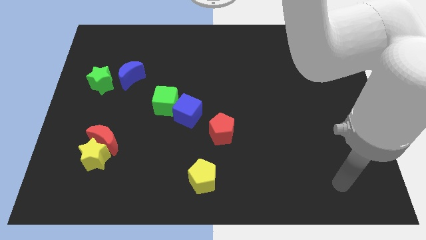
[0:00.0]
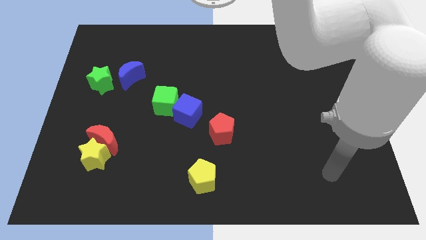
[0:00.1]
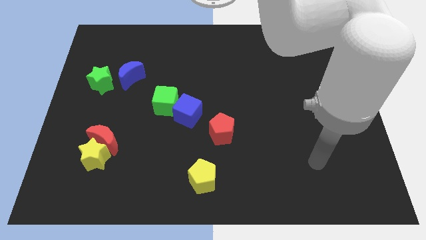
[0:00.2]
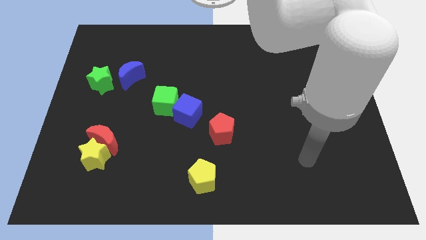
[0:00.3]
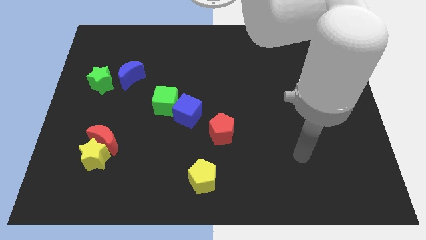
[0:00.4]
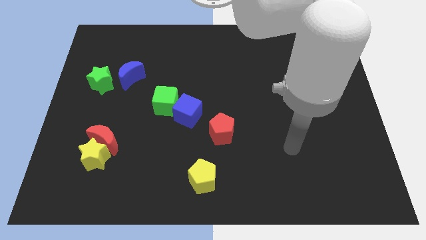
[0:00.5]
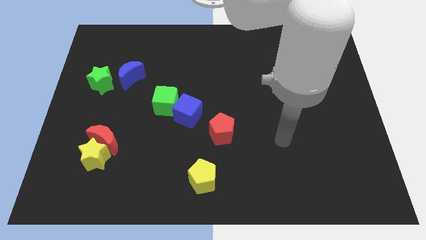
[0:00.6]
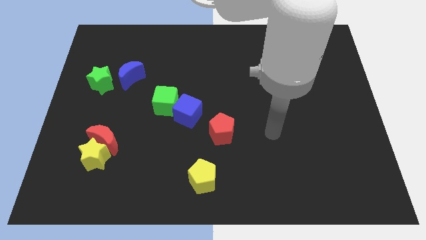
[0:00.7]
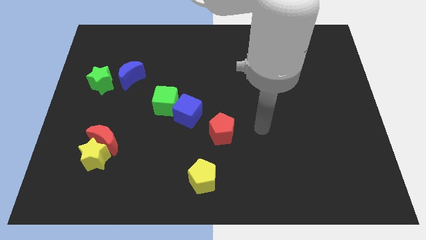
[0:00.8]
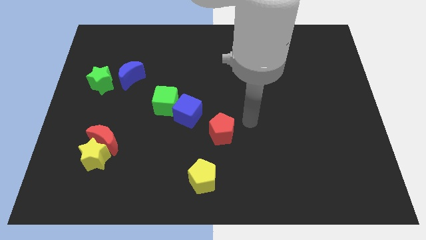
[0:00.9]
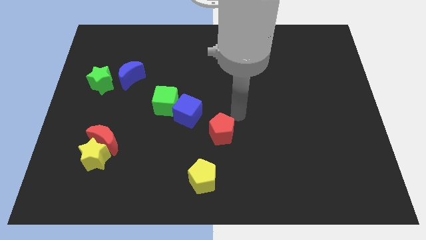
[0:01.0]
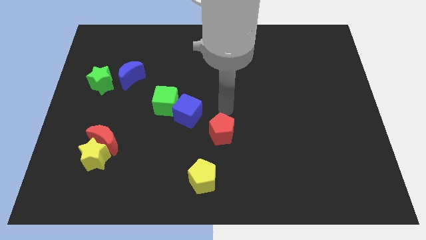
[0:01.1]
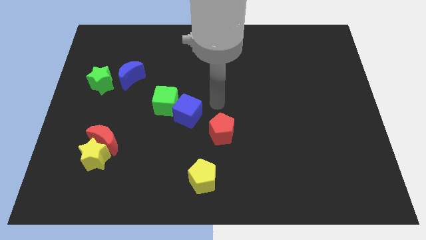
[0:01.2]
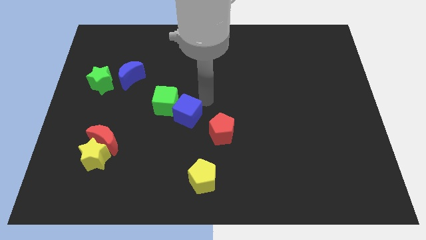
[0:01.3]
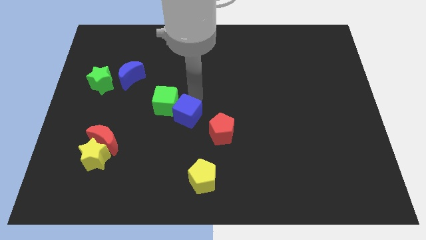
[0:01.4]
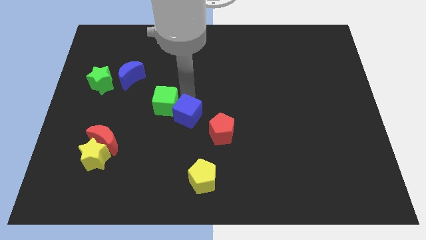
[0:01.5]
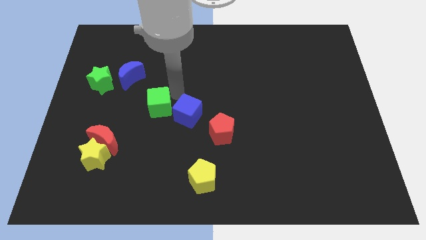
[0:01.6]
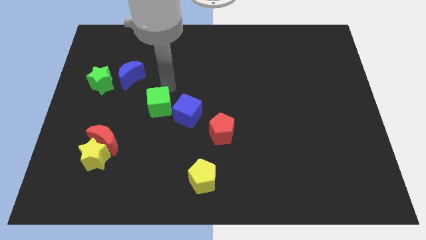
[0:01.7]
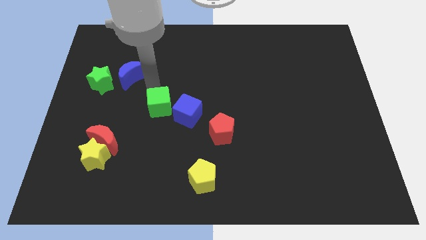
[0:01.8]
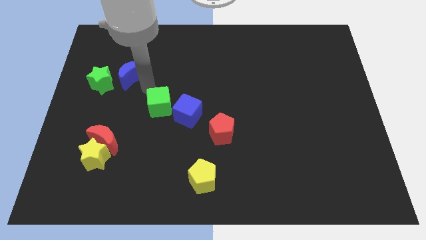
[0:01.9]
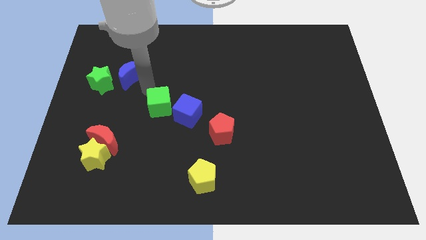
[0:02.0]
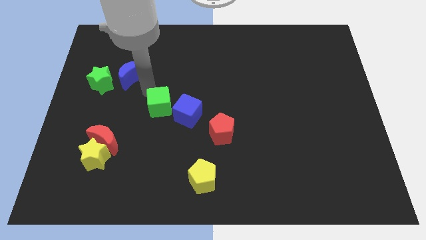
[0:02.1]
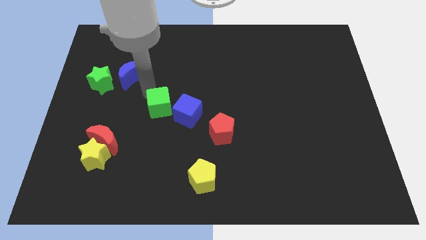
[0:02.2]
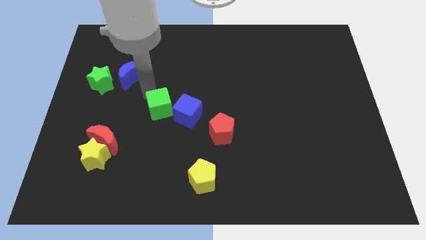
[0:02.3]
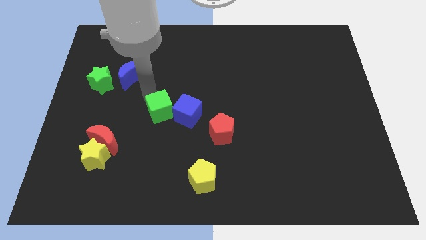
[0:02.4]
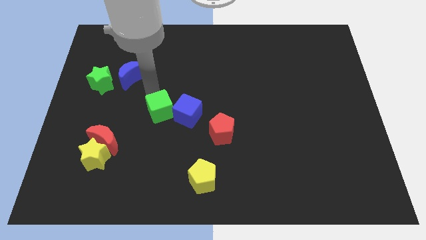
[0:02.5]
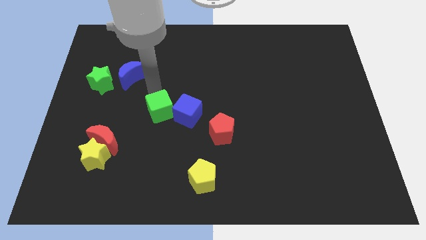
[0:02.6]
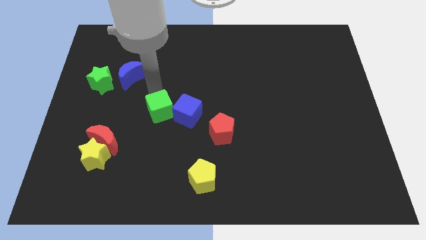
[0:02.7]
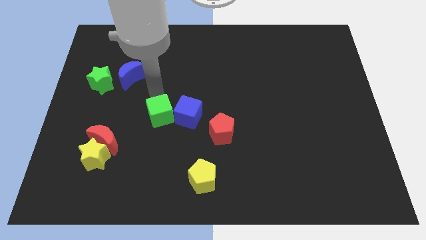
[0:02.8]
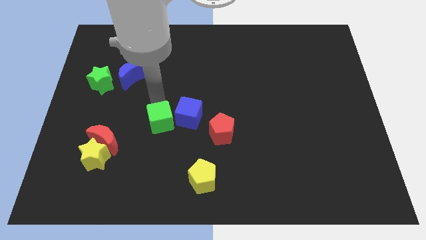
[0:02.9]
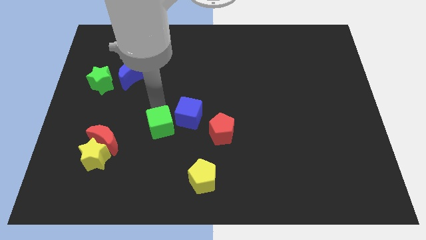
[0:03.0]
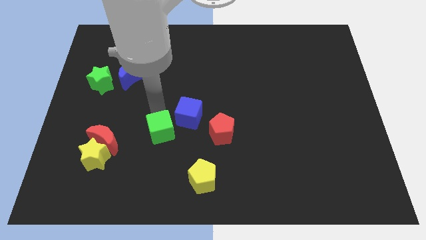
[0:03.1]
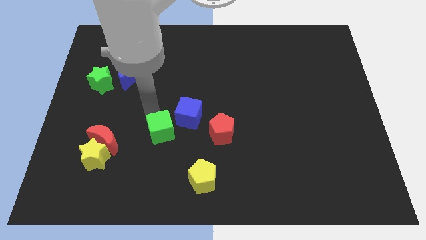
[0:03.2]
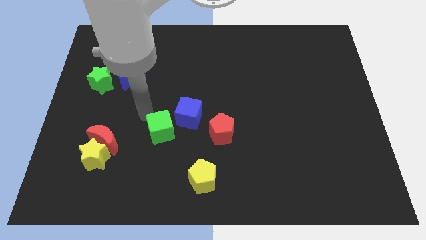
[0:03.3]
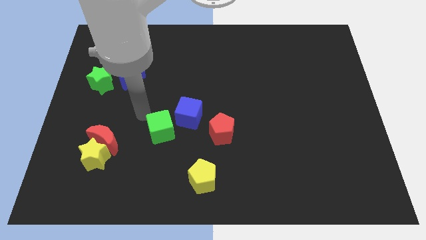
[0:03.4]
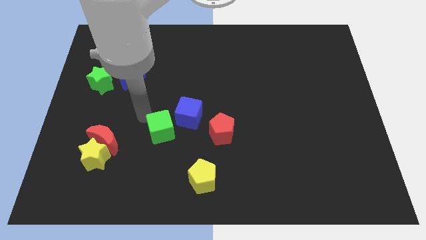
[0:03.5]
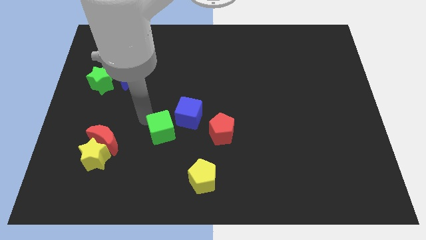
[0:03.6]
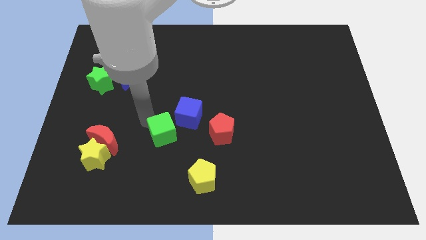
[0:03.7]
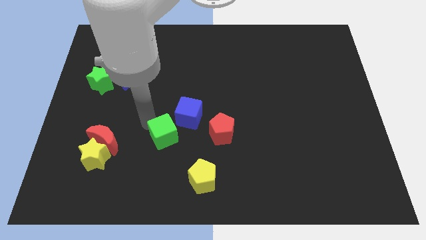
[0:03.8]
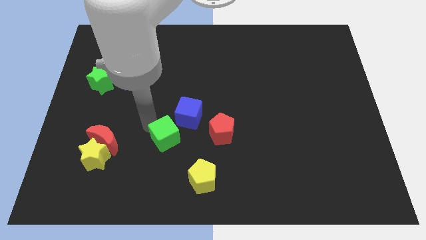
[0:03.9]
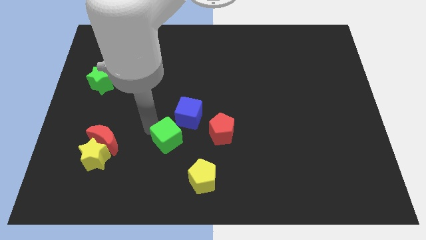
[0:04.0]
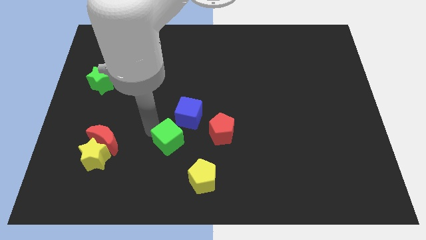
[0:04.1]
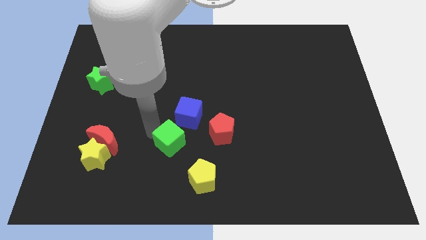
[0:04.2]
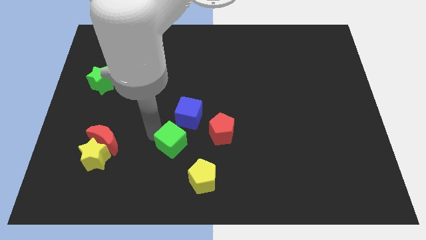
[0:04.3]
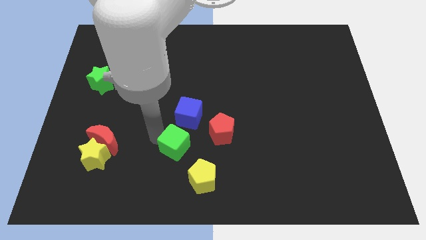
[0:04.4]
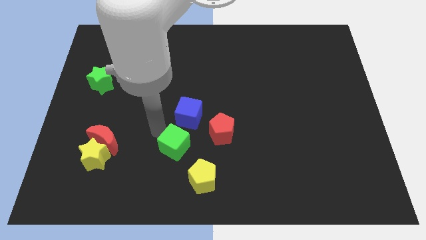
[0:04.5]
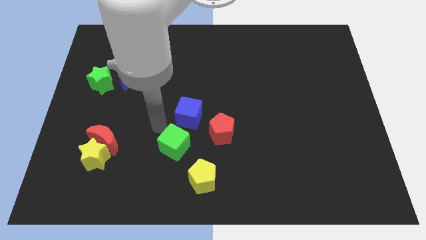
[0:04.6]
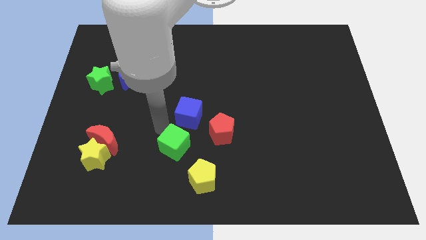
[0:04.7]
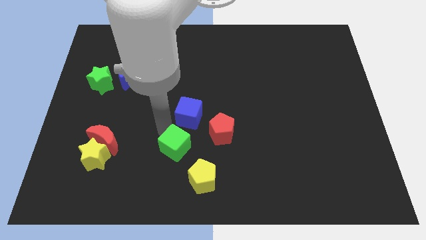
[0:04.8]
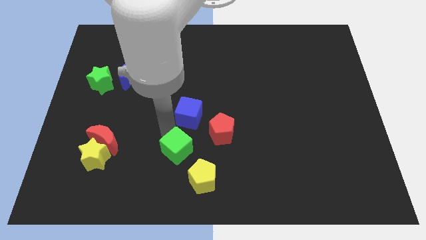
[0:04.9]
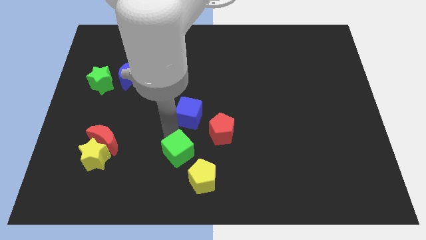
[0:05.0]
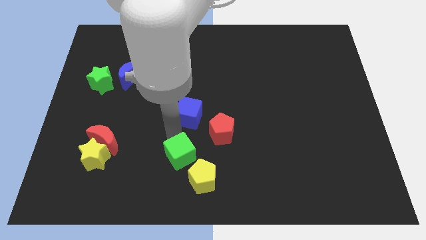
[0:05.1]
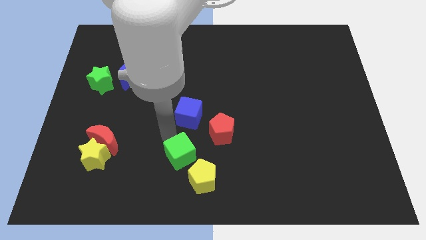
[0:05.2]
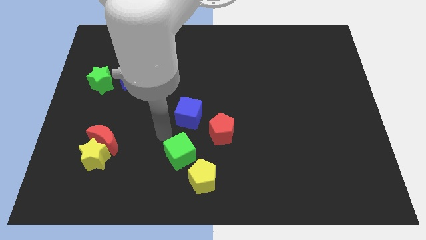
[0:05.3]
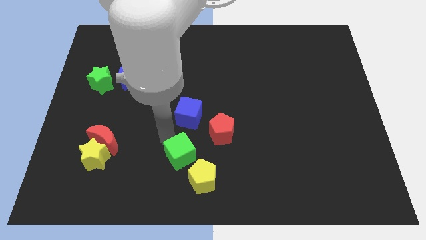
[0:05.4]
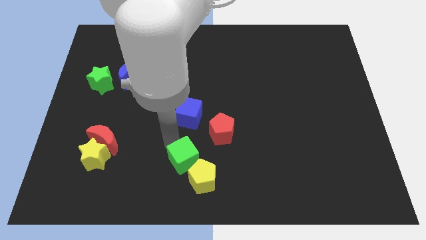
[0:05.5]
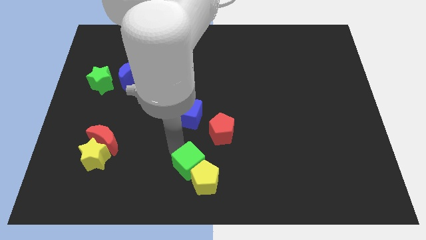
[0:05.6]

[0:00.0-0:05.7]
push the green cube to the yellow pentagon

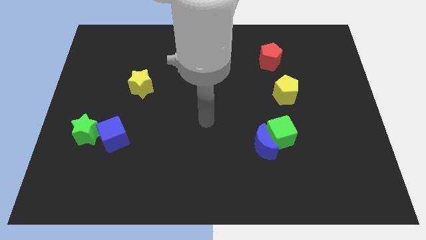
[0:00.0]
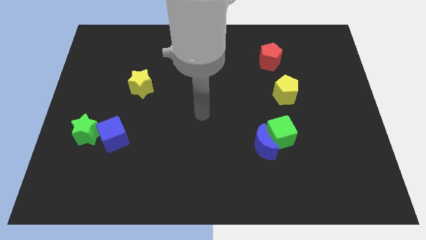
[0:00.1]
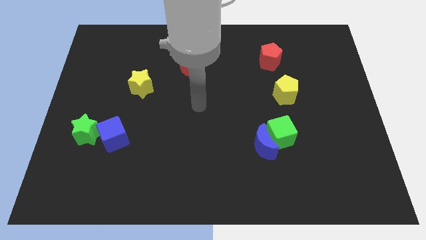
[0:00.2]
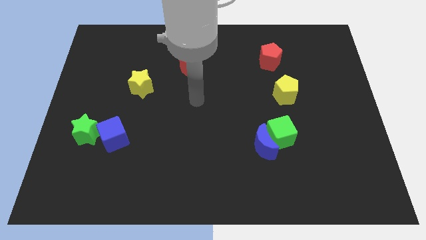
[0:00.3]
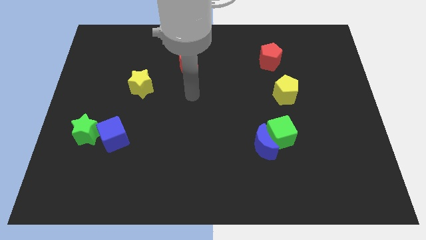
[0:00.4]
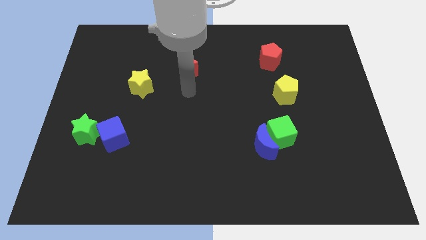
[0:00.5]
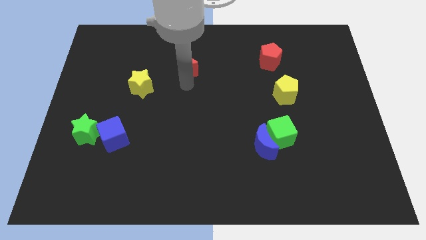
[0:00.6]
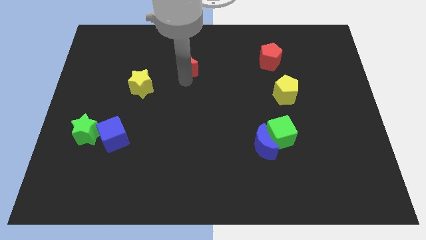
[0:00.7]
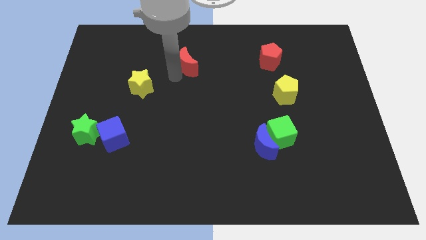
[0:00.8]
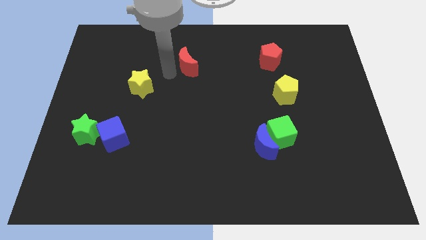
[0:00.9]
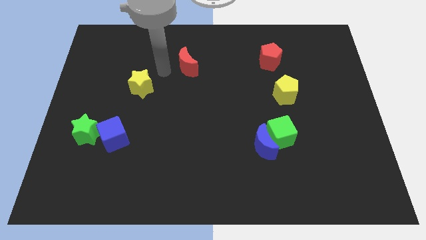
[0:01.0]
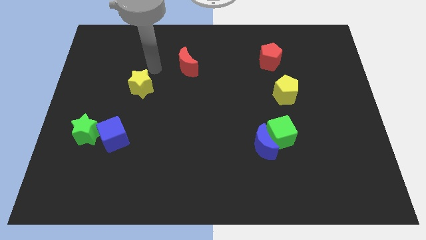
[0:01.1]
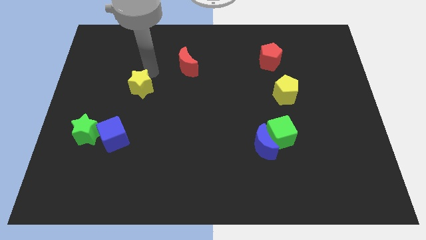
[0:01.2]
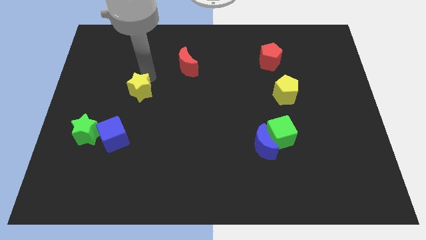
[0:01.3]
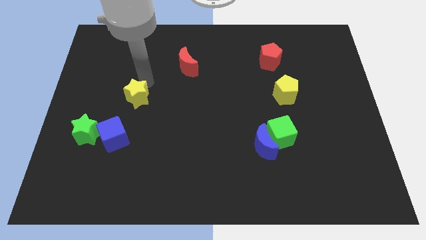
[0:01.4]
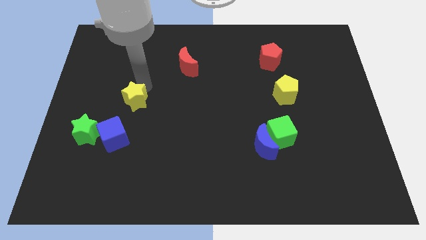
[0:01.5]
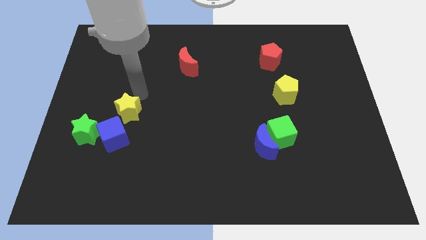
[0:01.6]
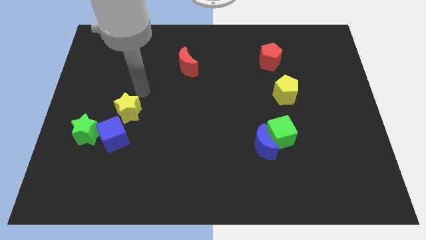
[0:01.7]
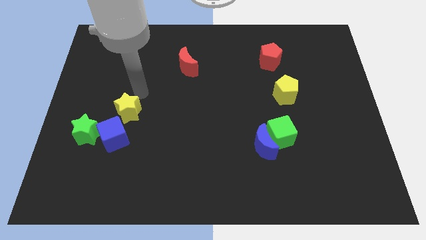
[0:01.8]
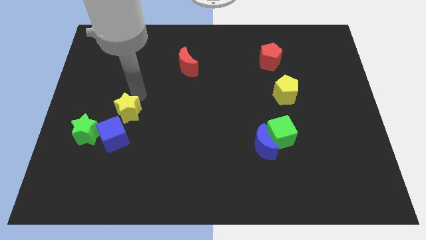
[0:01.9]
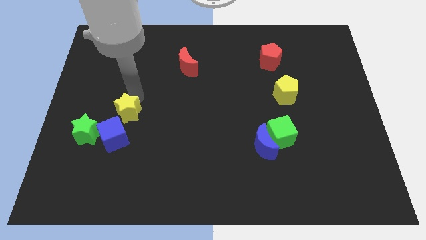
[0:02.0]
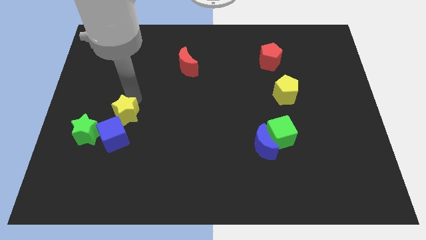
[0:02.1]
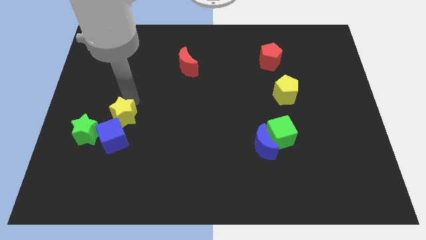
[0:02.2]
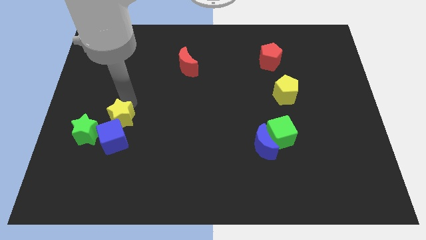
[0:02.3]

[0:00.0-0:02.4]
move the yellow star to the blue cube
